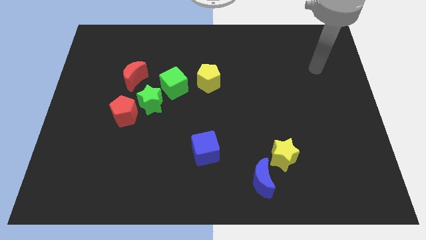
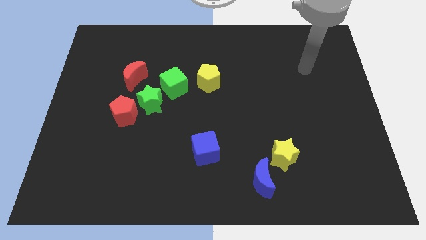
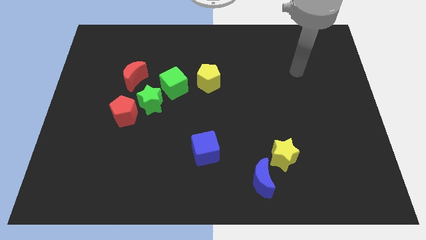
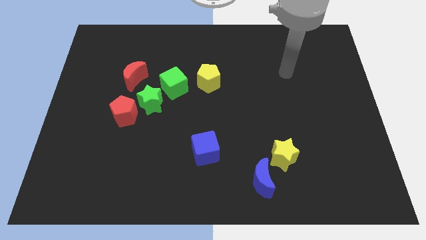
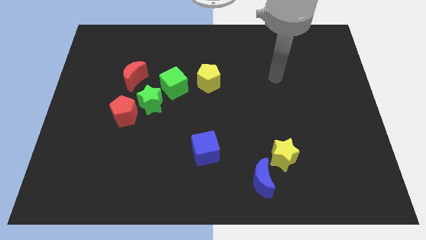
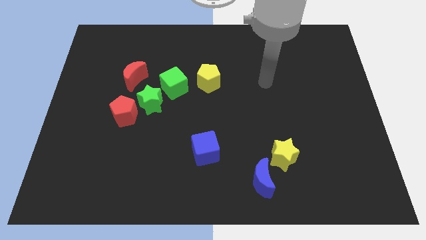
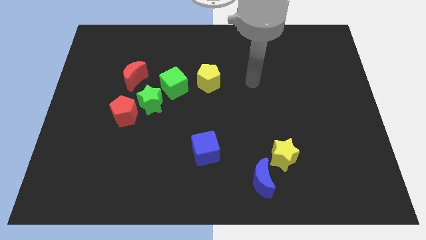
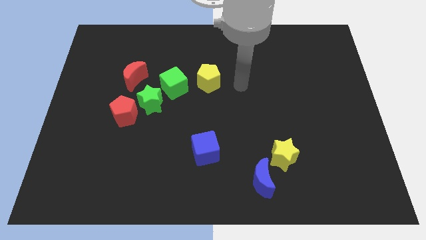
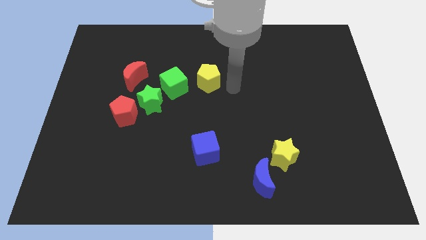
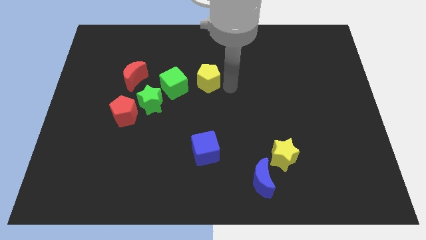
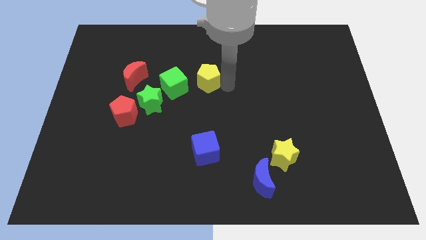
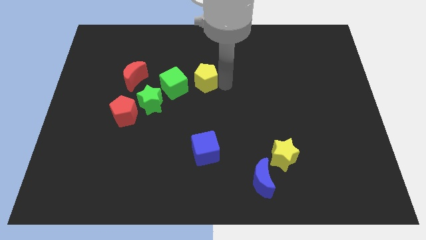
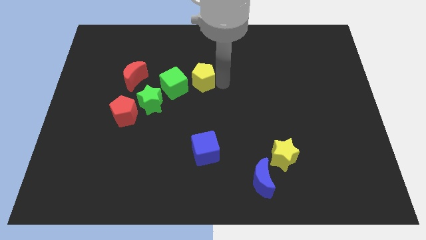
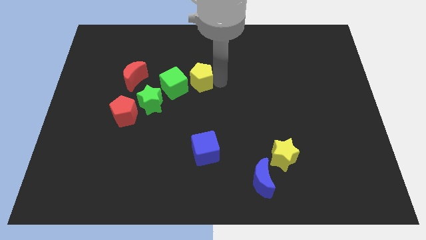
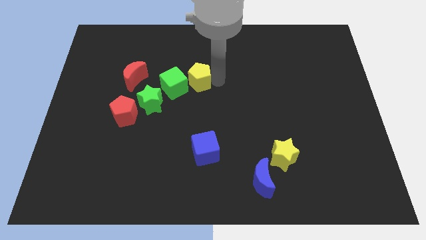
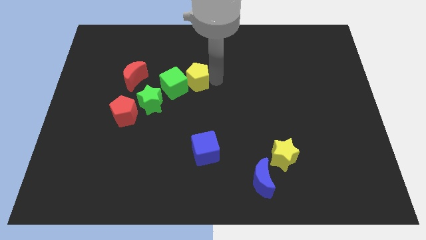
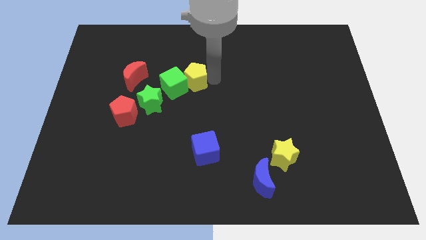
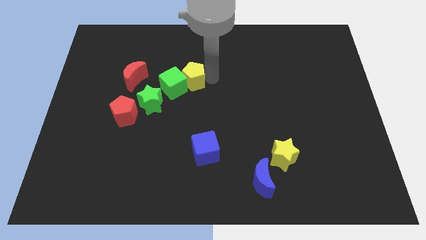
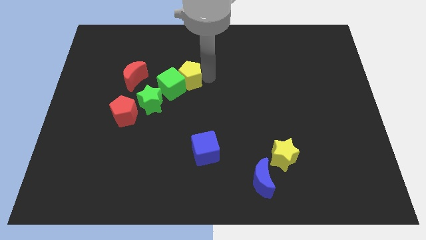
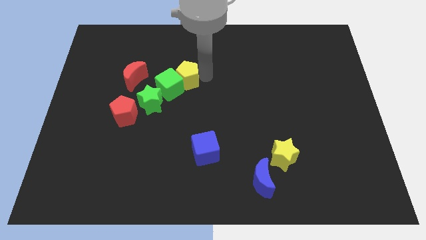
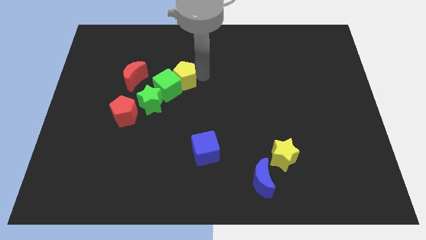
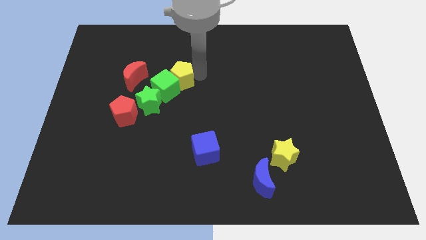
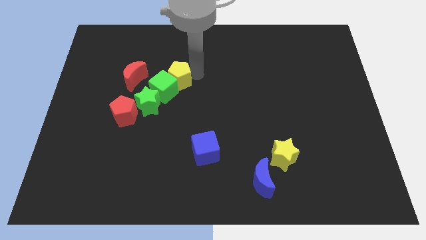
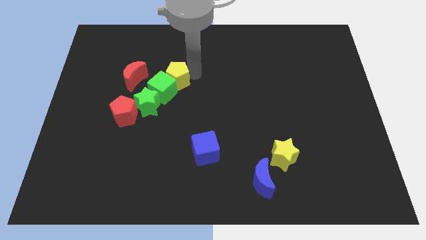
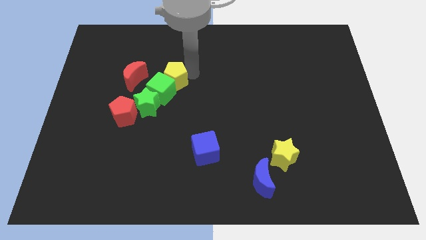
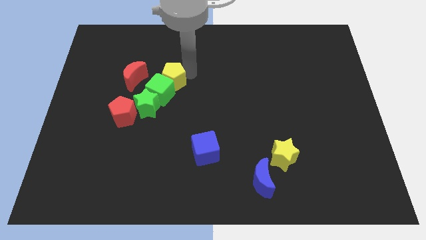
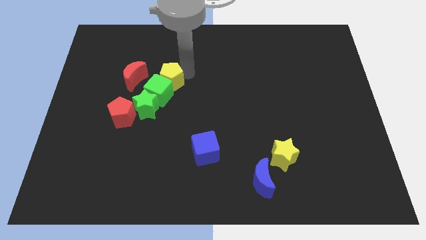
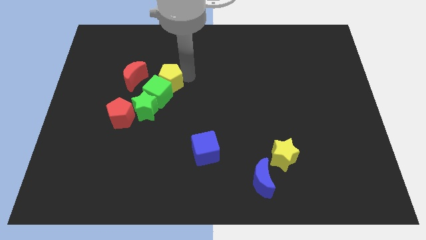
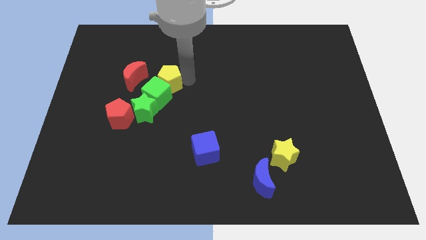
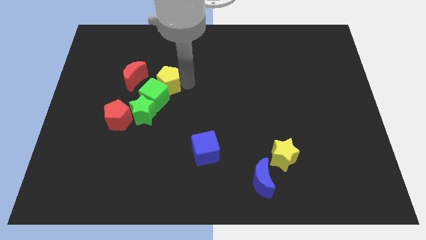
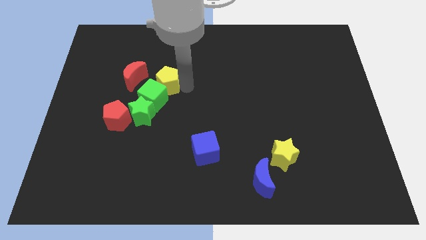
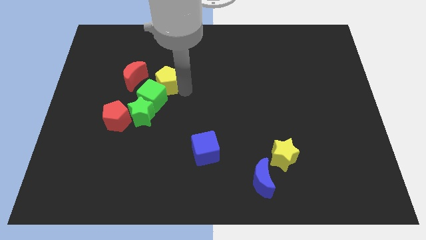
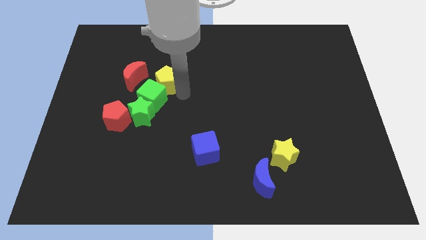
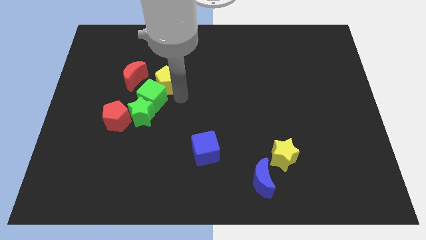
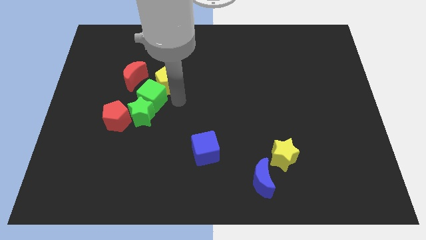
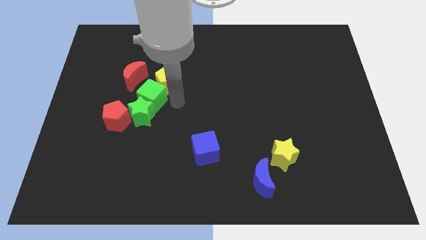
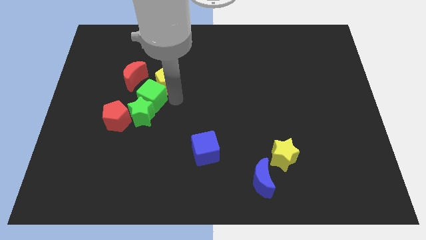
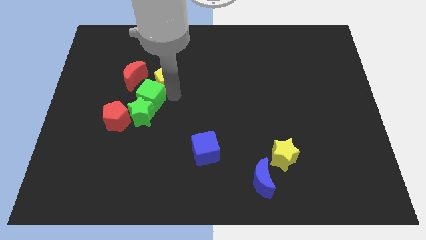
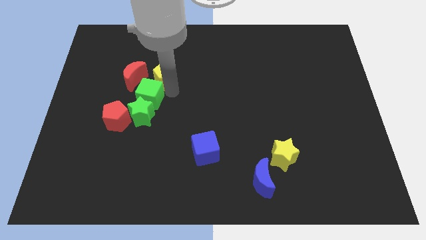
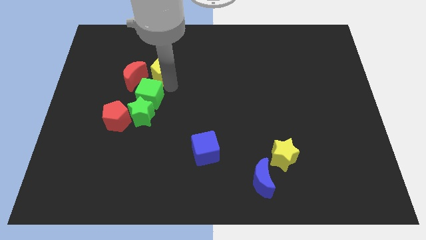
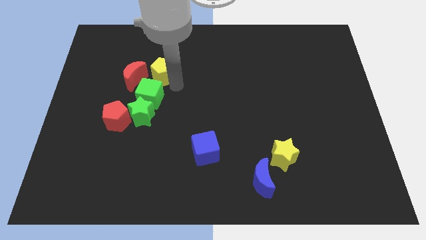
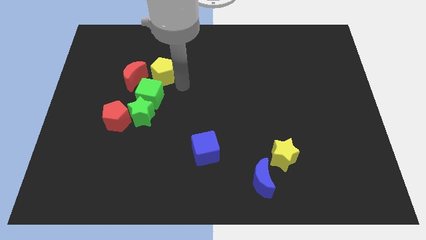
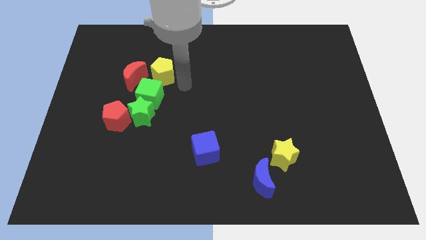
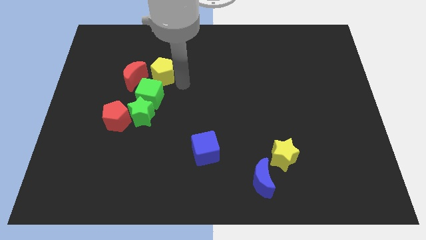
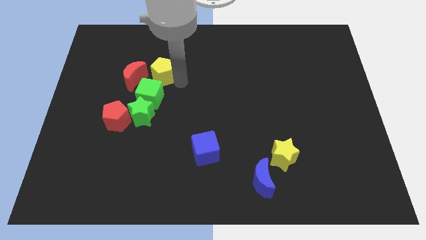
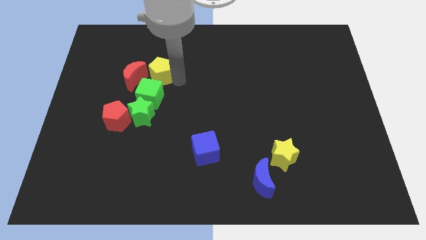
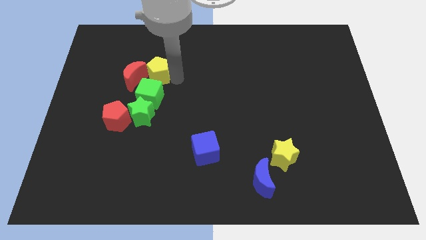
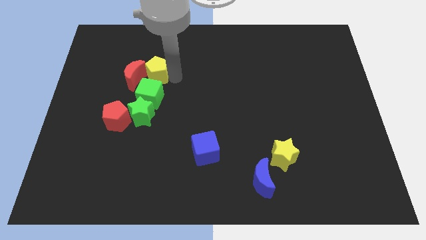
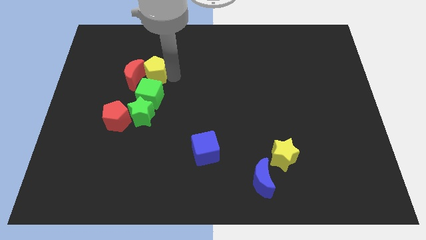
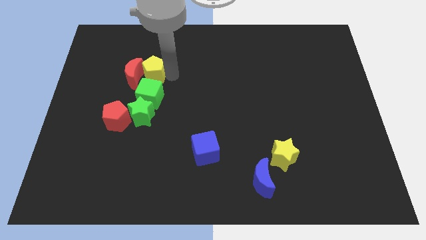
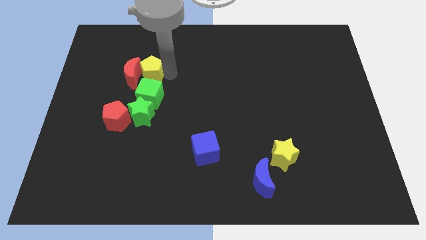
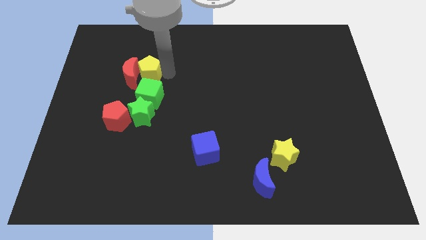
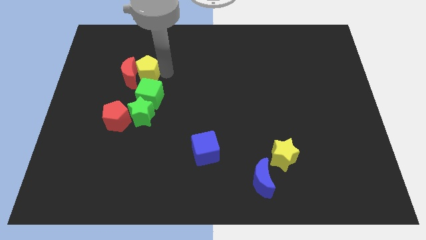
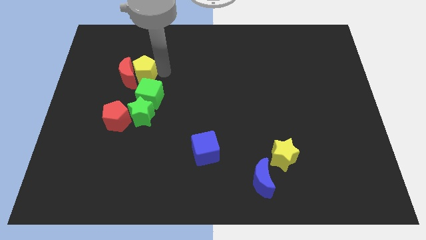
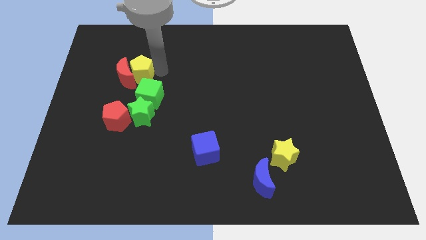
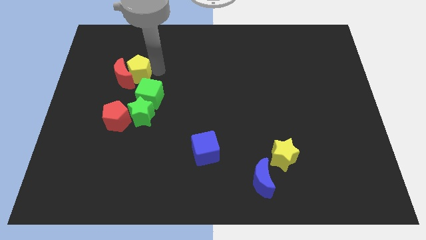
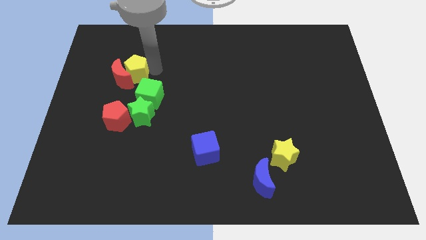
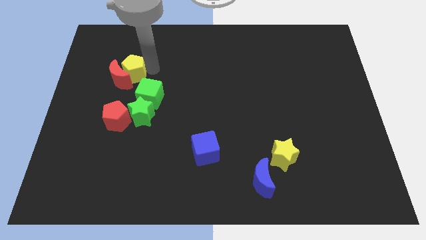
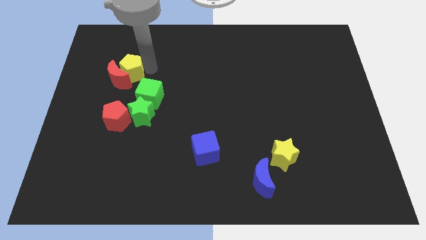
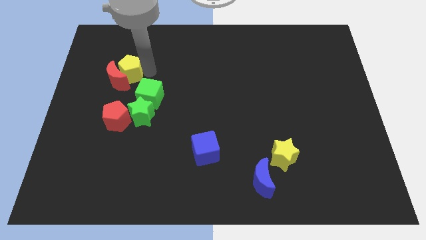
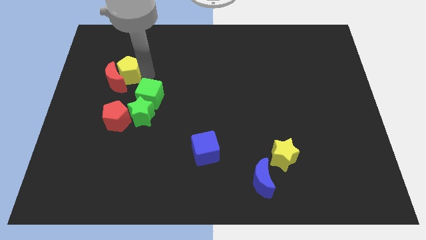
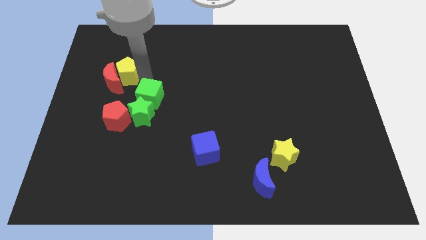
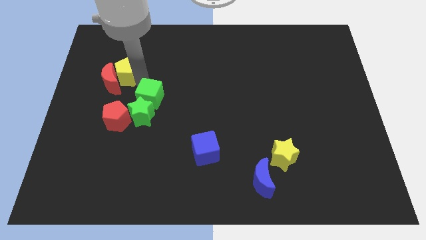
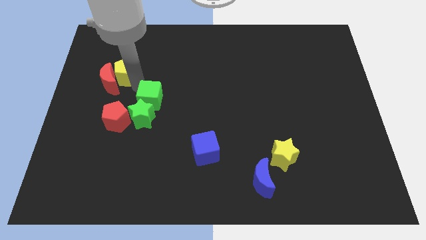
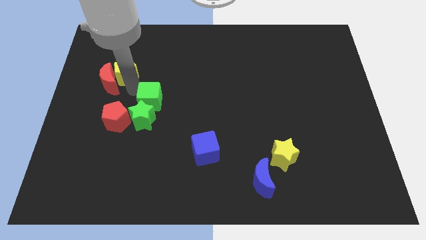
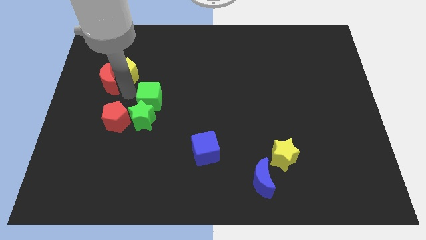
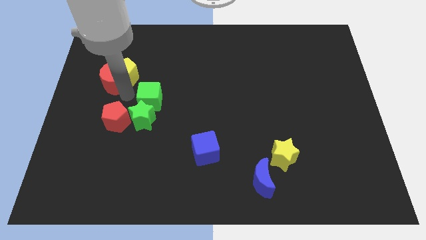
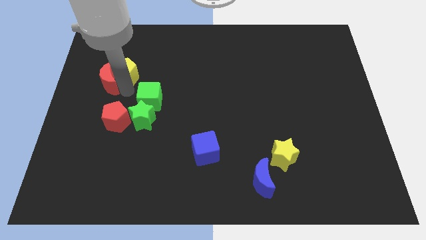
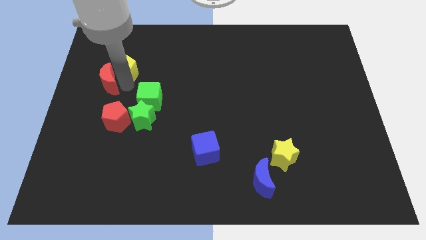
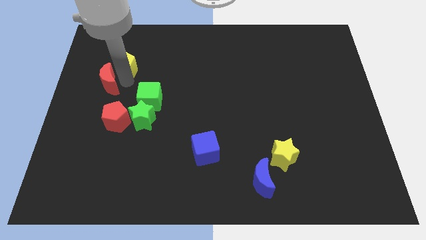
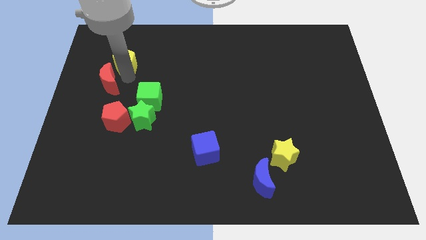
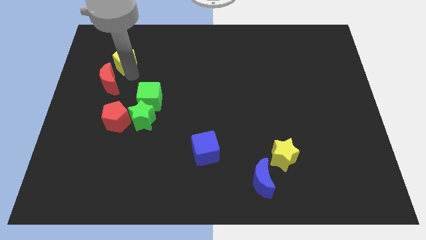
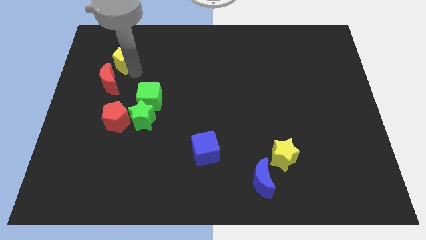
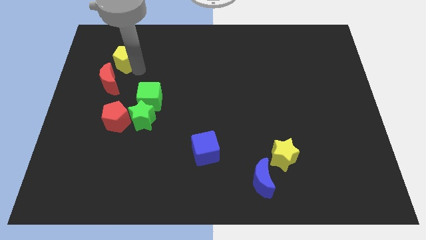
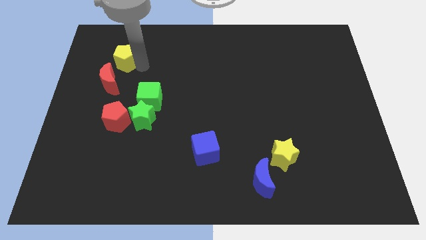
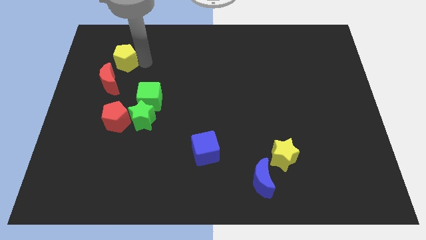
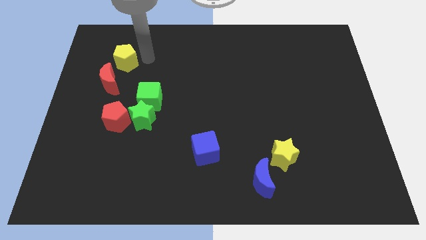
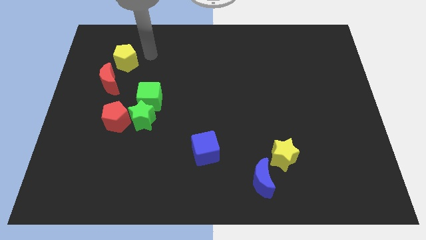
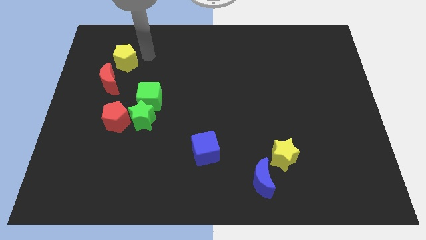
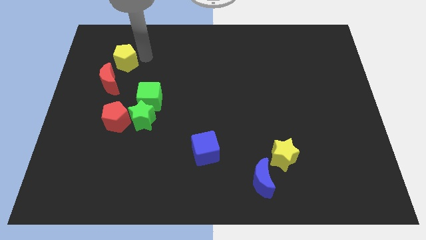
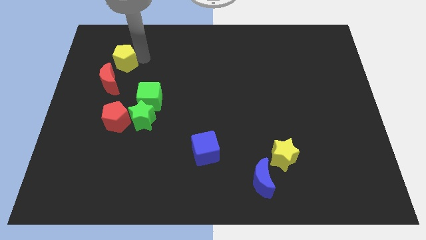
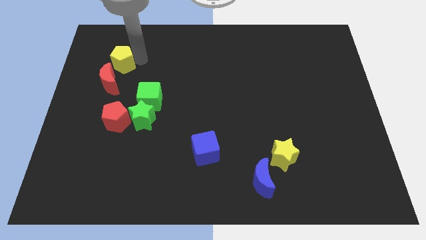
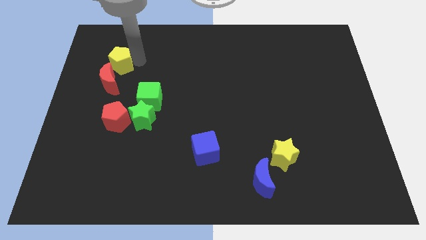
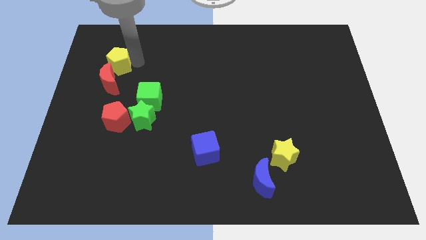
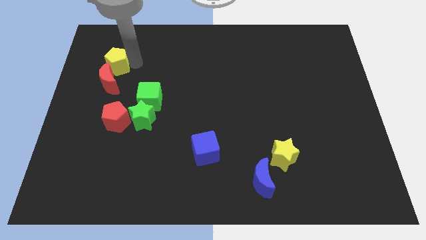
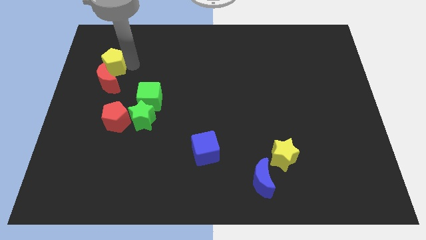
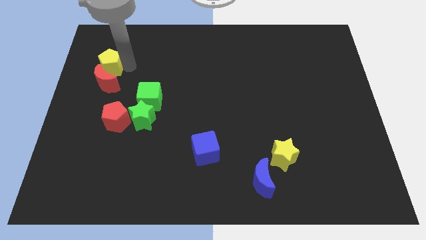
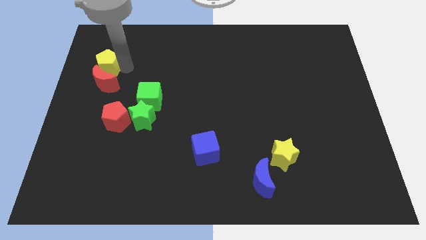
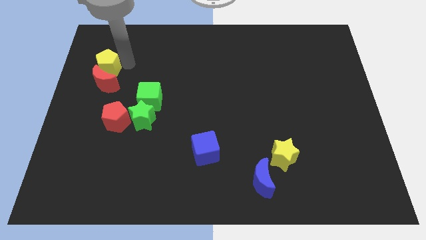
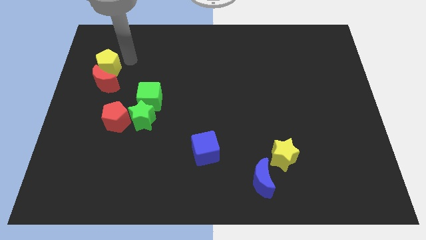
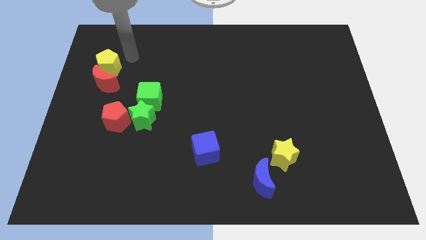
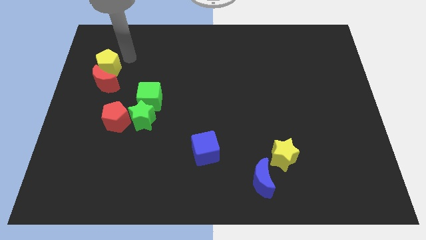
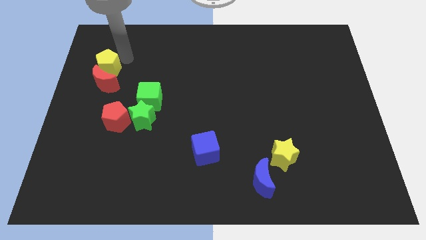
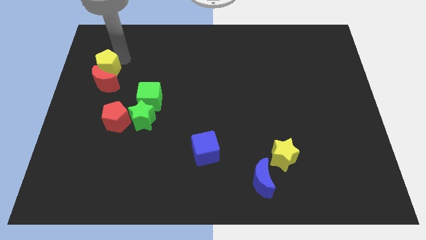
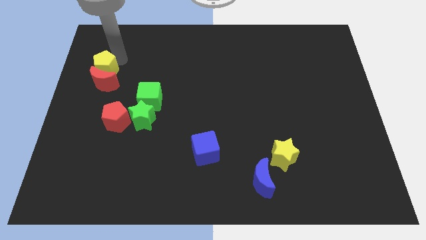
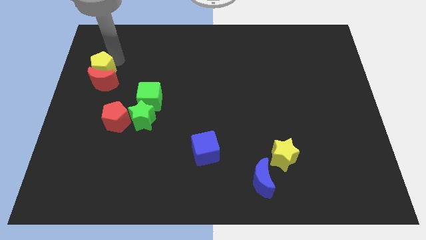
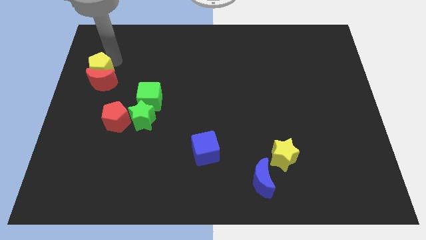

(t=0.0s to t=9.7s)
move the yellow pentagon to the left side
